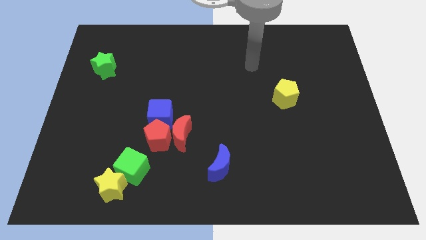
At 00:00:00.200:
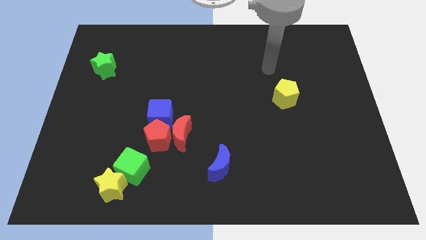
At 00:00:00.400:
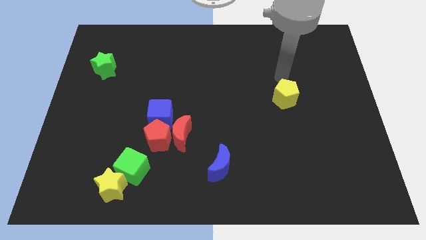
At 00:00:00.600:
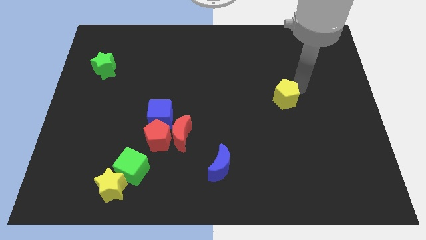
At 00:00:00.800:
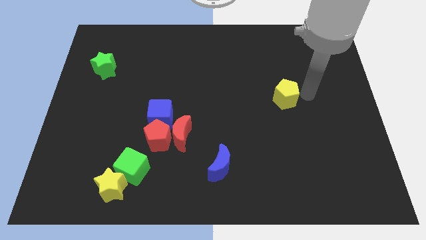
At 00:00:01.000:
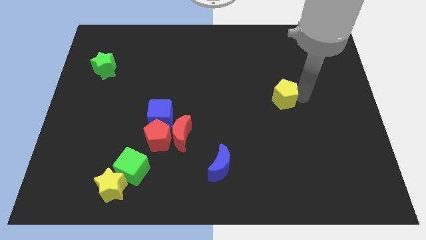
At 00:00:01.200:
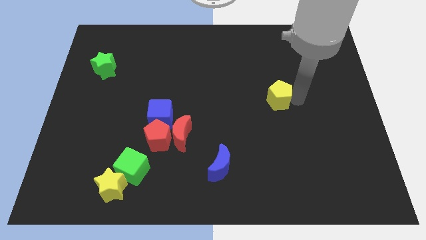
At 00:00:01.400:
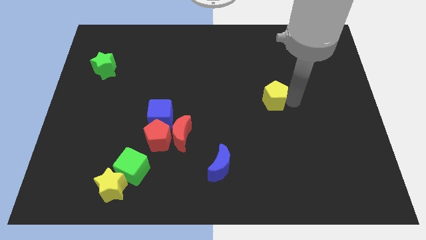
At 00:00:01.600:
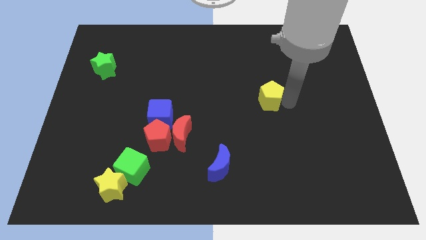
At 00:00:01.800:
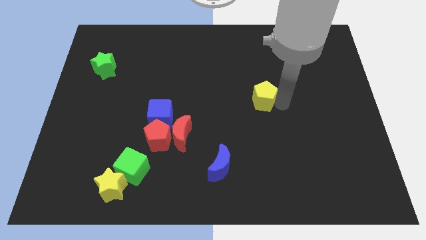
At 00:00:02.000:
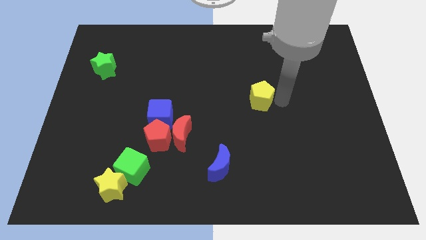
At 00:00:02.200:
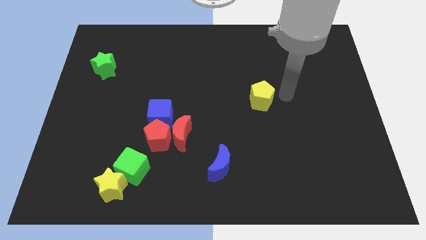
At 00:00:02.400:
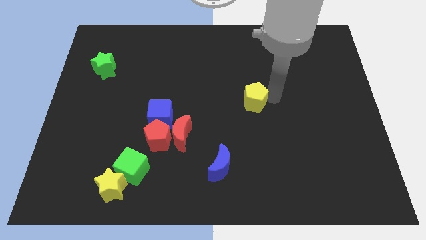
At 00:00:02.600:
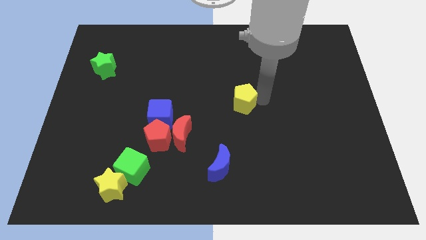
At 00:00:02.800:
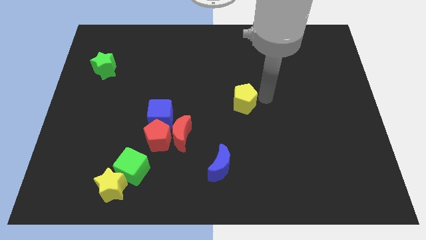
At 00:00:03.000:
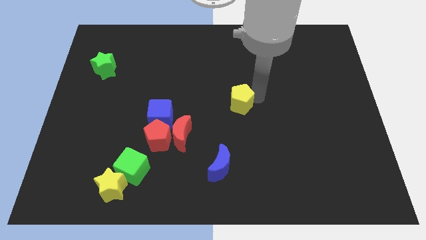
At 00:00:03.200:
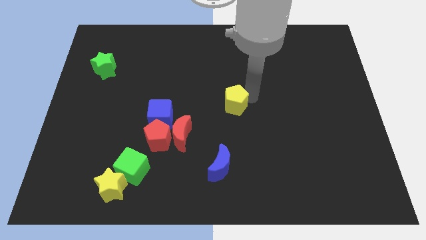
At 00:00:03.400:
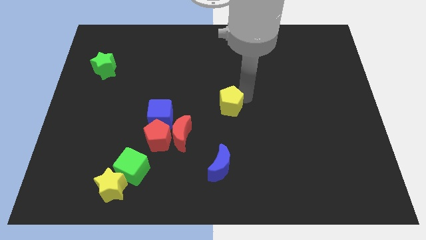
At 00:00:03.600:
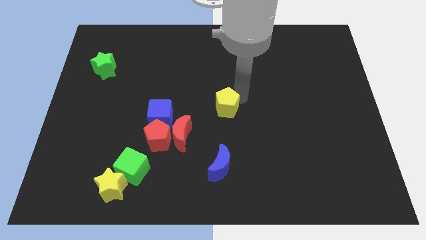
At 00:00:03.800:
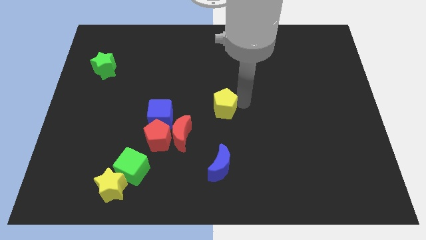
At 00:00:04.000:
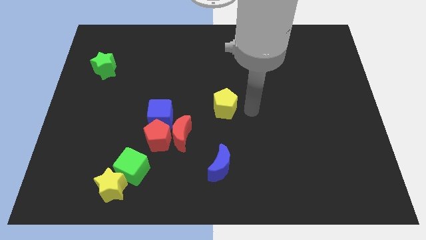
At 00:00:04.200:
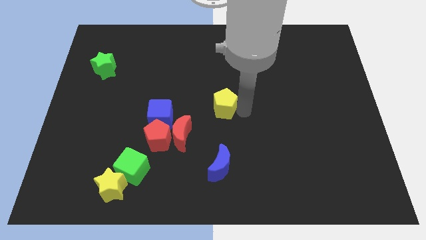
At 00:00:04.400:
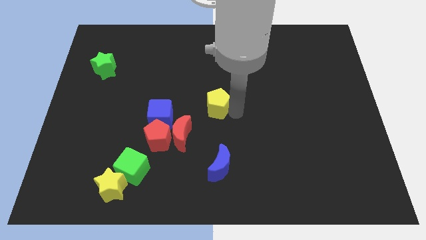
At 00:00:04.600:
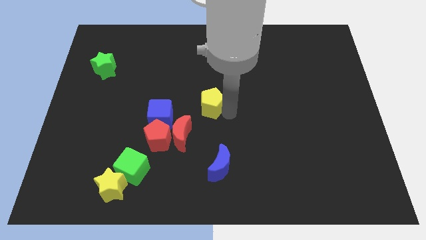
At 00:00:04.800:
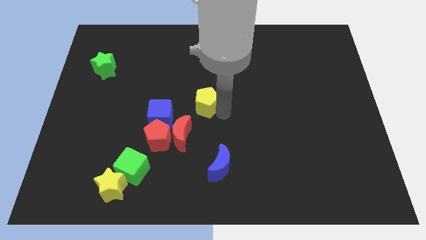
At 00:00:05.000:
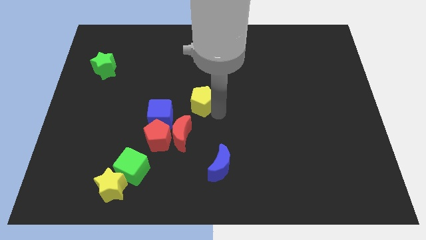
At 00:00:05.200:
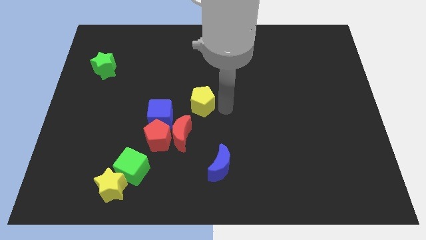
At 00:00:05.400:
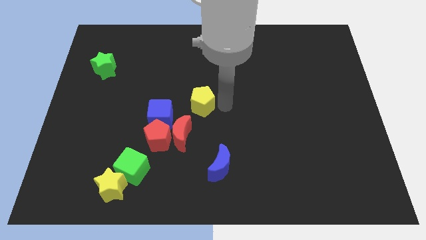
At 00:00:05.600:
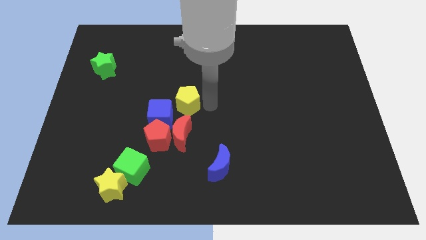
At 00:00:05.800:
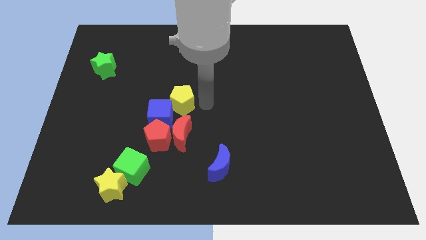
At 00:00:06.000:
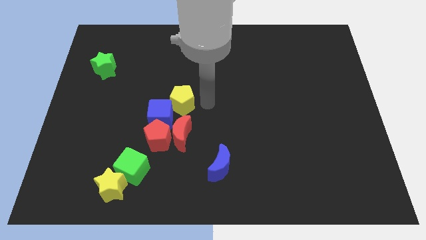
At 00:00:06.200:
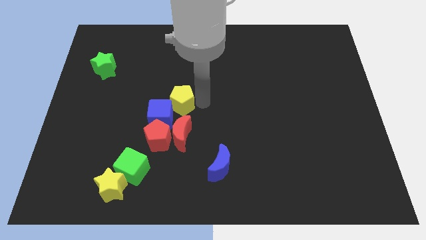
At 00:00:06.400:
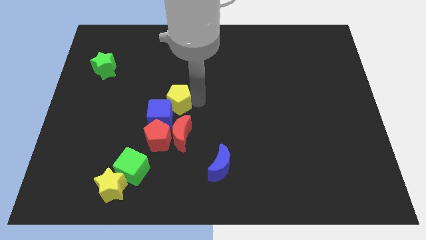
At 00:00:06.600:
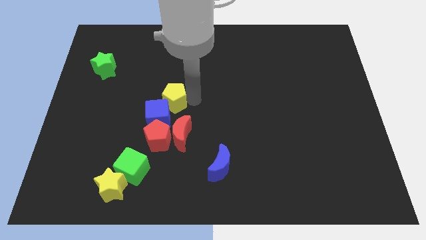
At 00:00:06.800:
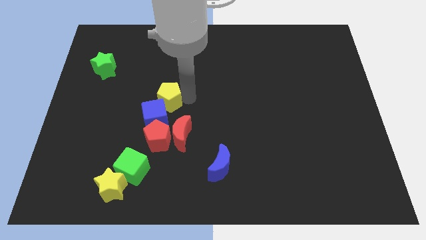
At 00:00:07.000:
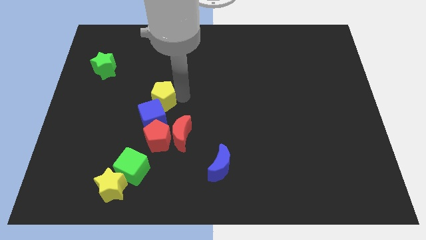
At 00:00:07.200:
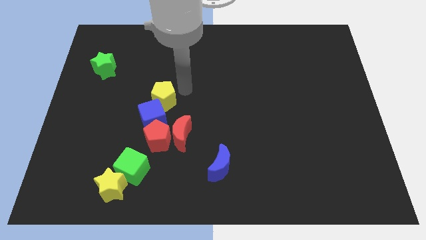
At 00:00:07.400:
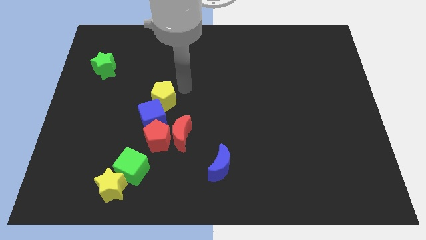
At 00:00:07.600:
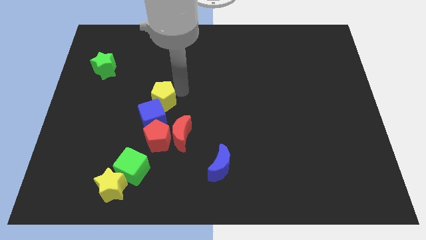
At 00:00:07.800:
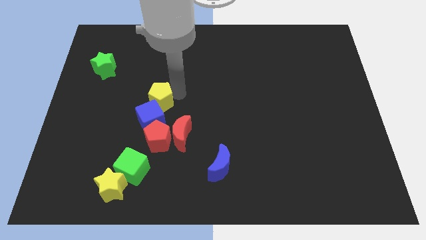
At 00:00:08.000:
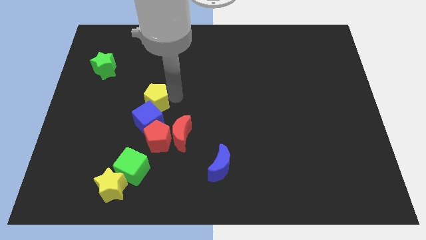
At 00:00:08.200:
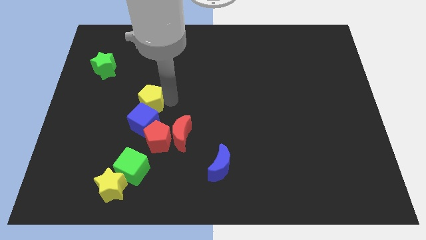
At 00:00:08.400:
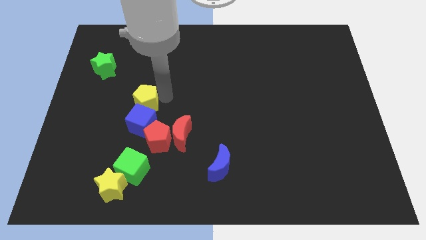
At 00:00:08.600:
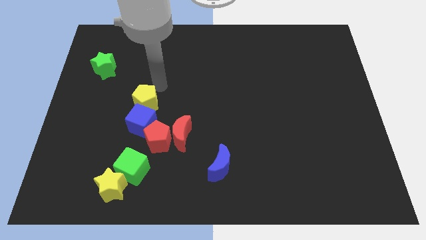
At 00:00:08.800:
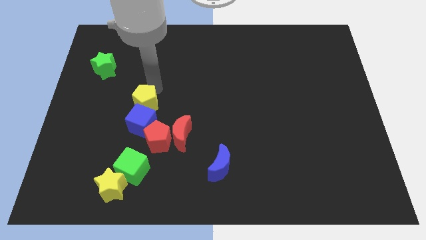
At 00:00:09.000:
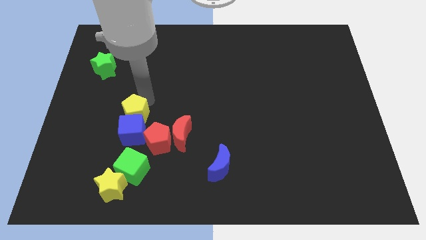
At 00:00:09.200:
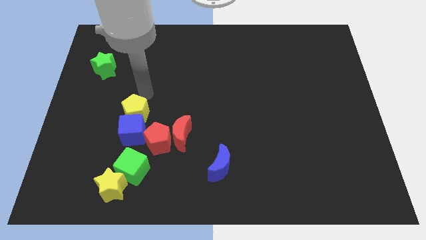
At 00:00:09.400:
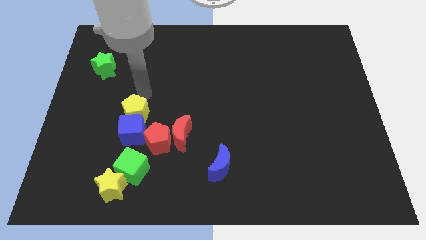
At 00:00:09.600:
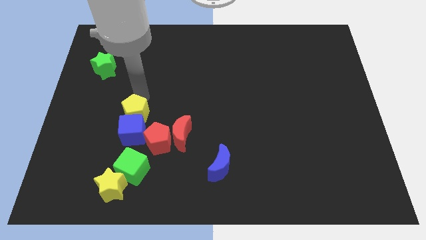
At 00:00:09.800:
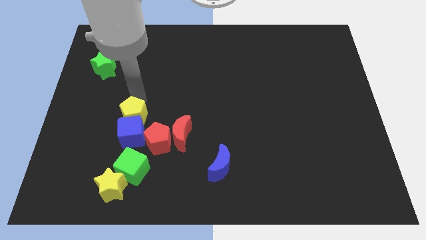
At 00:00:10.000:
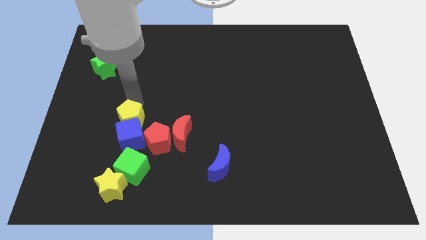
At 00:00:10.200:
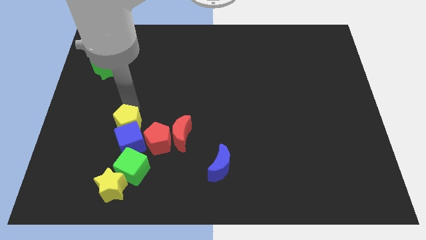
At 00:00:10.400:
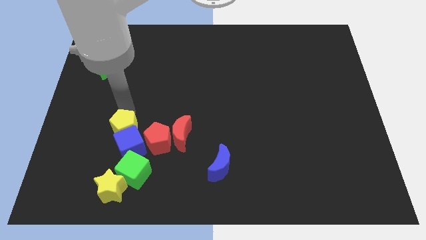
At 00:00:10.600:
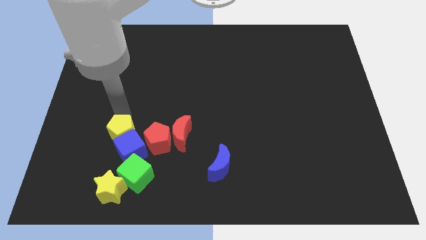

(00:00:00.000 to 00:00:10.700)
push the yellow pentagon to the top left side of the green cube

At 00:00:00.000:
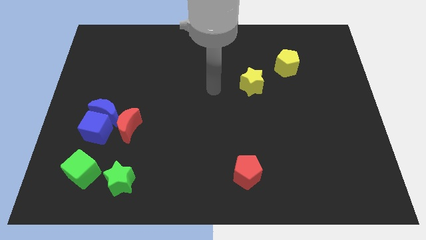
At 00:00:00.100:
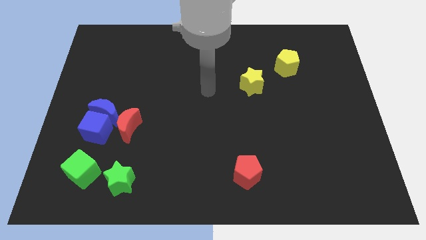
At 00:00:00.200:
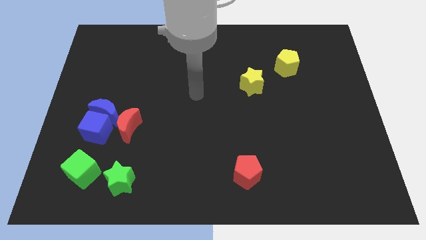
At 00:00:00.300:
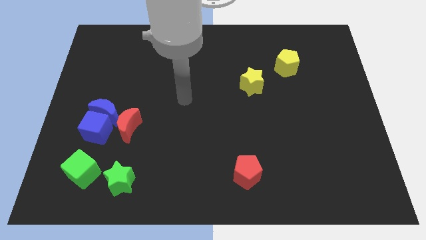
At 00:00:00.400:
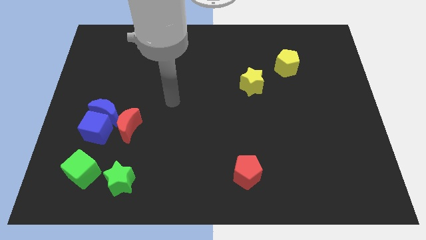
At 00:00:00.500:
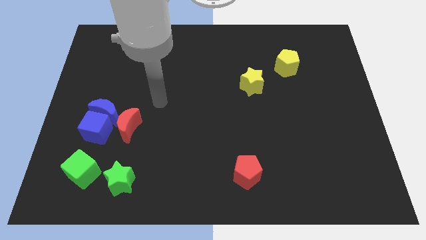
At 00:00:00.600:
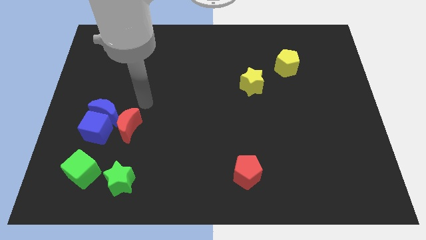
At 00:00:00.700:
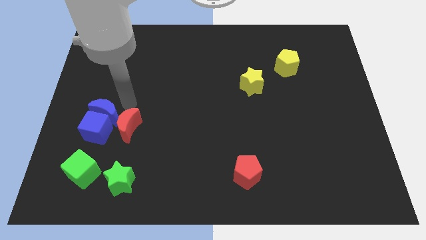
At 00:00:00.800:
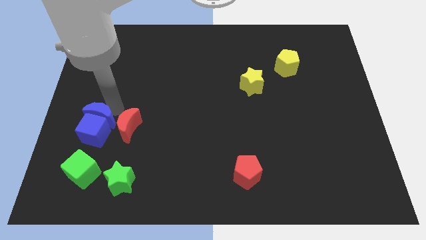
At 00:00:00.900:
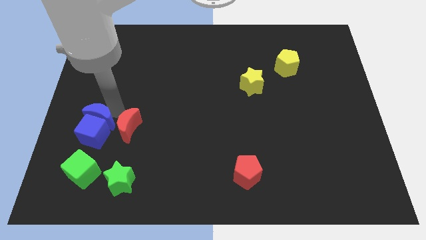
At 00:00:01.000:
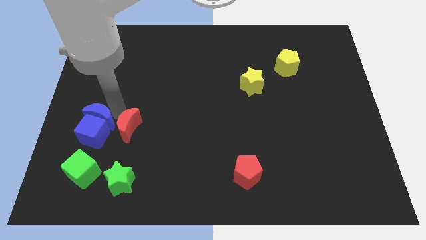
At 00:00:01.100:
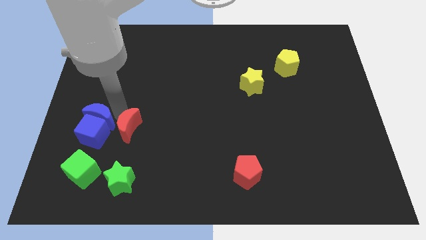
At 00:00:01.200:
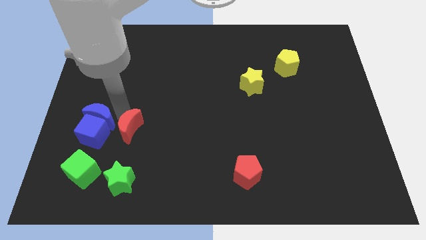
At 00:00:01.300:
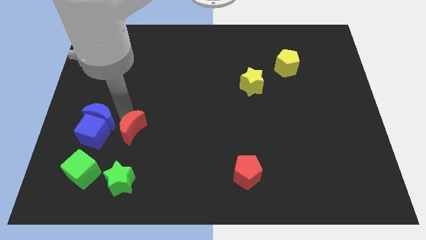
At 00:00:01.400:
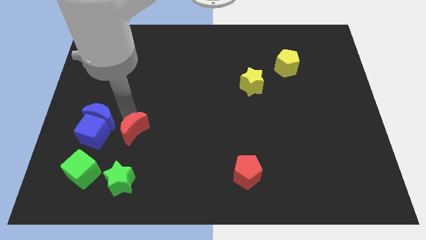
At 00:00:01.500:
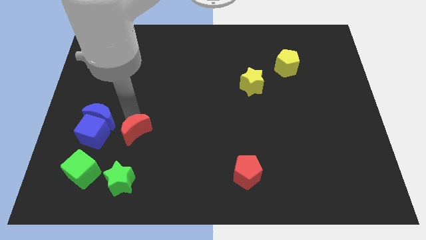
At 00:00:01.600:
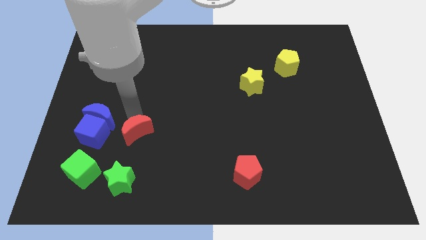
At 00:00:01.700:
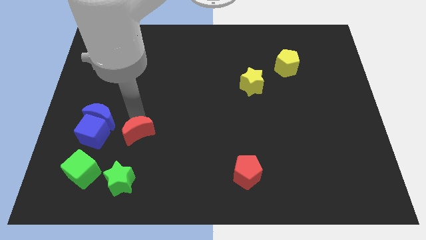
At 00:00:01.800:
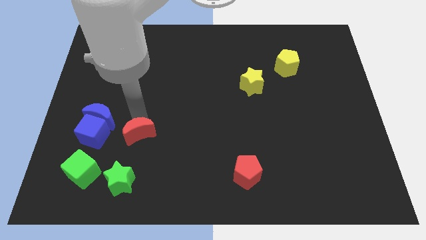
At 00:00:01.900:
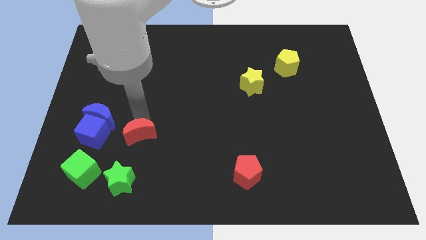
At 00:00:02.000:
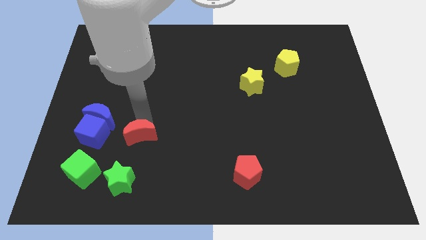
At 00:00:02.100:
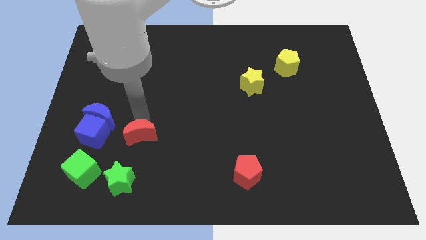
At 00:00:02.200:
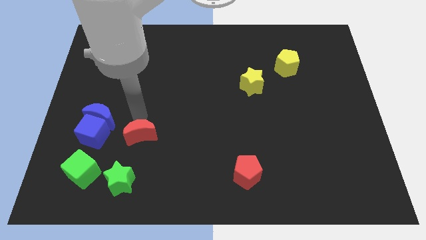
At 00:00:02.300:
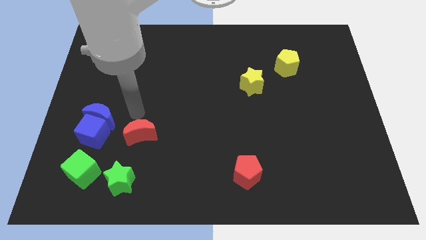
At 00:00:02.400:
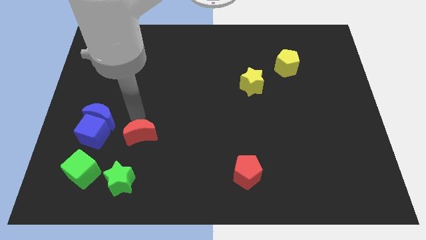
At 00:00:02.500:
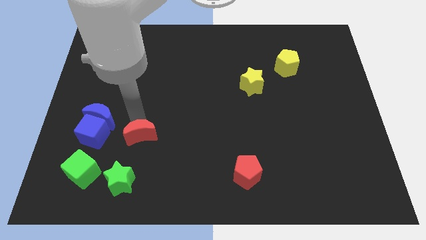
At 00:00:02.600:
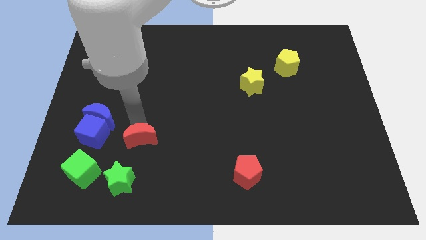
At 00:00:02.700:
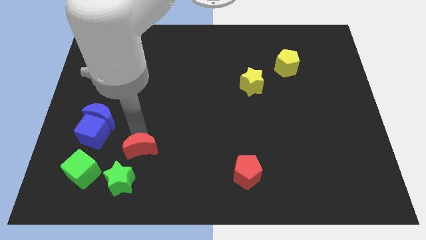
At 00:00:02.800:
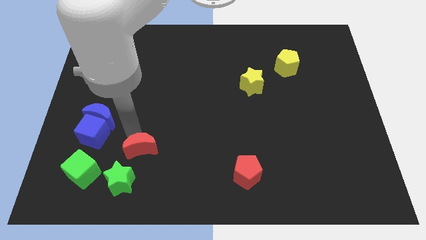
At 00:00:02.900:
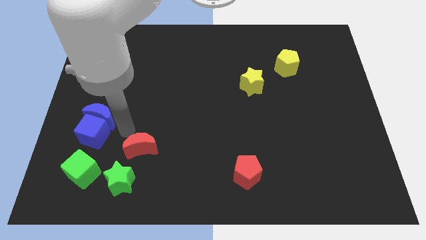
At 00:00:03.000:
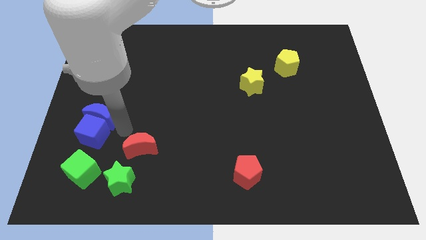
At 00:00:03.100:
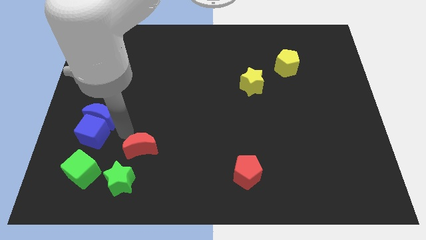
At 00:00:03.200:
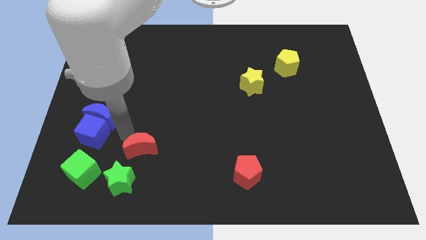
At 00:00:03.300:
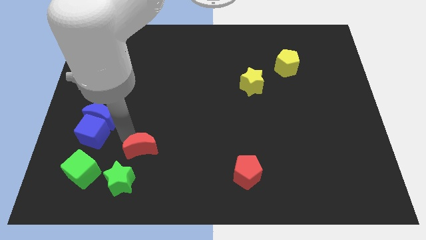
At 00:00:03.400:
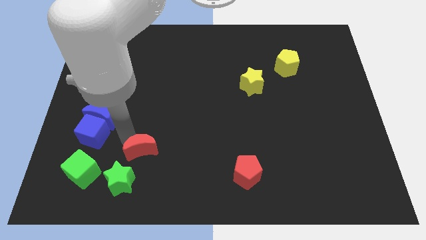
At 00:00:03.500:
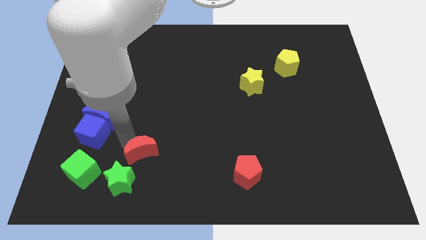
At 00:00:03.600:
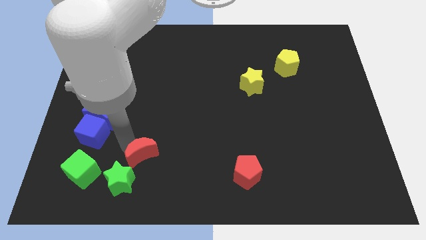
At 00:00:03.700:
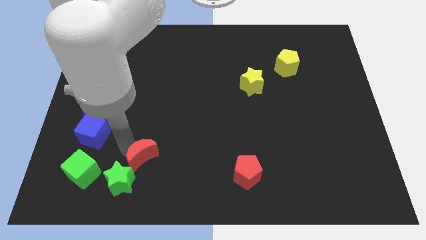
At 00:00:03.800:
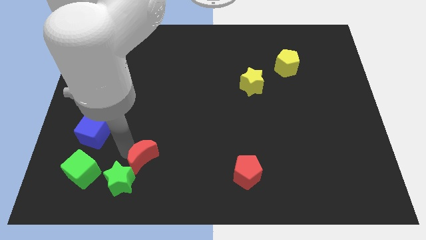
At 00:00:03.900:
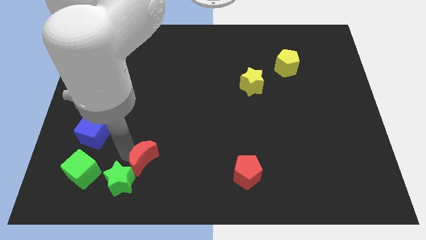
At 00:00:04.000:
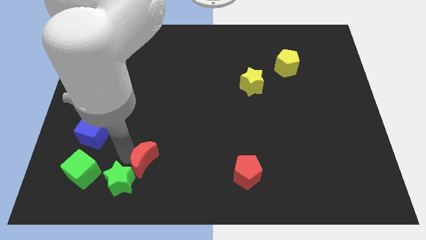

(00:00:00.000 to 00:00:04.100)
push the red moon right of the green star
